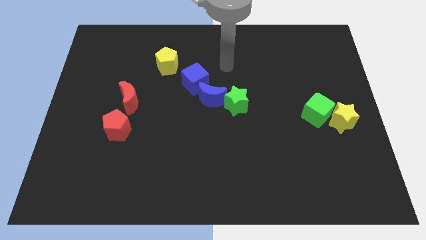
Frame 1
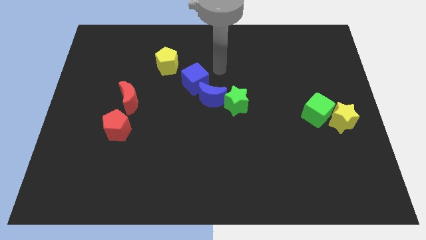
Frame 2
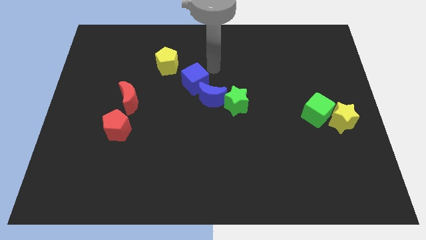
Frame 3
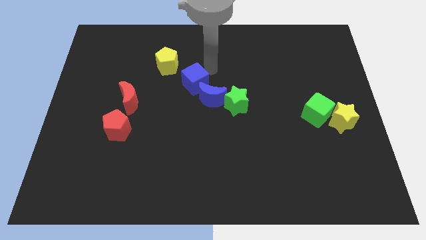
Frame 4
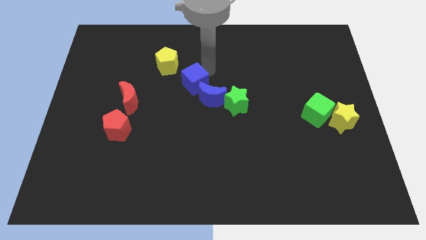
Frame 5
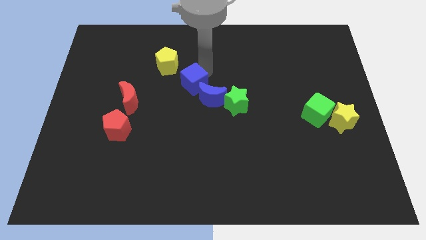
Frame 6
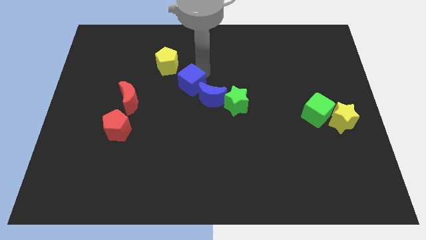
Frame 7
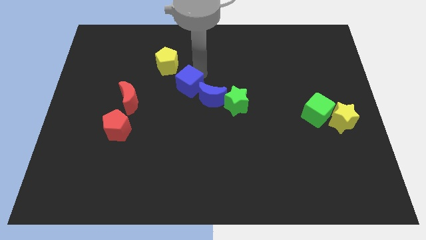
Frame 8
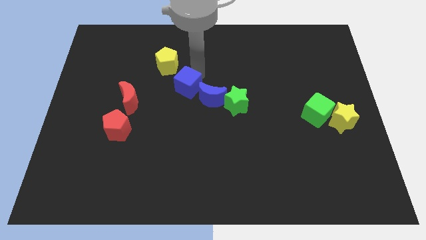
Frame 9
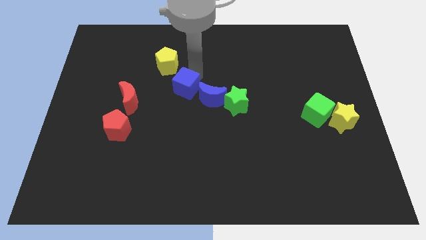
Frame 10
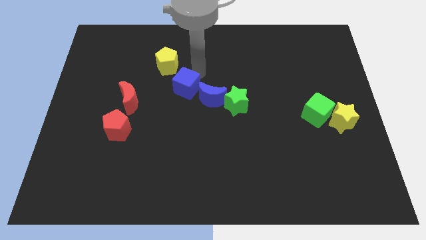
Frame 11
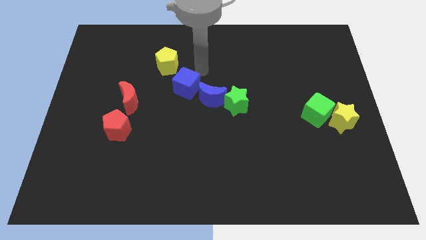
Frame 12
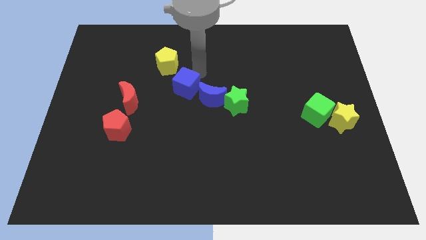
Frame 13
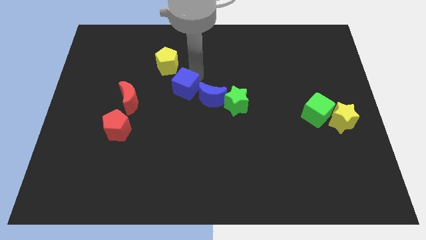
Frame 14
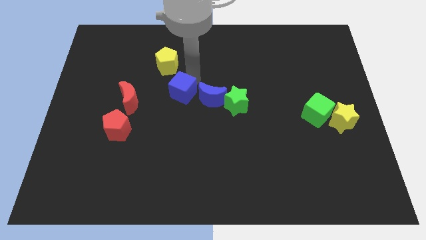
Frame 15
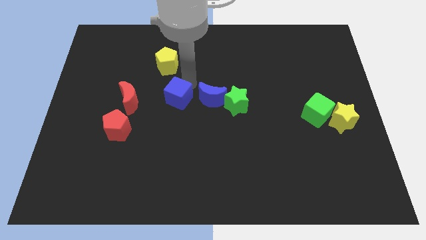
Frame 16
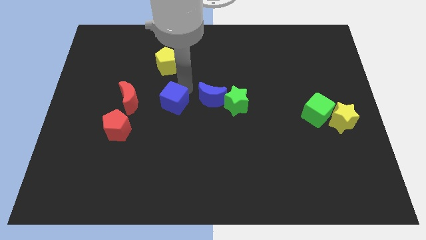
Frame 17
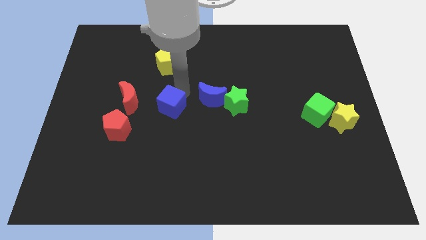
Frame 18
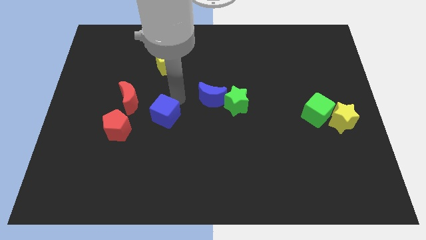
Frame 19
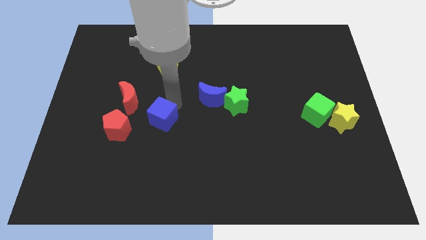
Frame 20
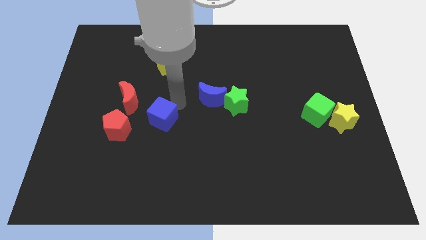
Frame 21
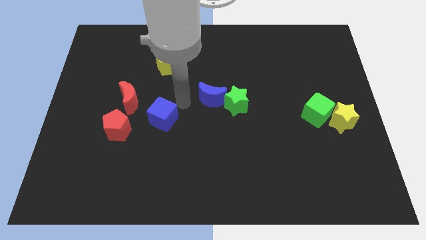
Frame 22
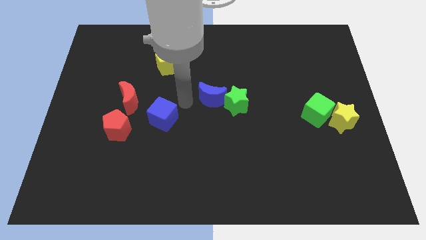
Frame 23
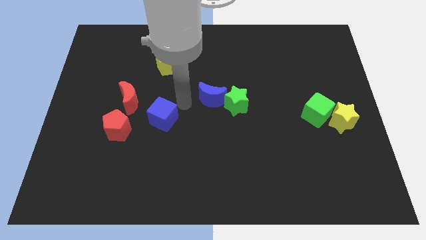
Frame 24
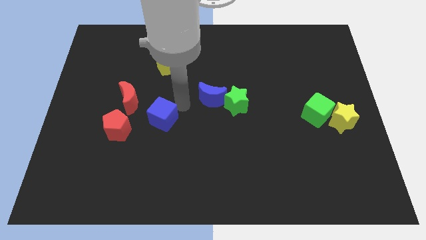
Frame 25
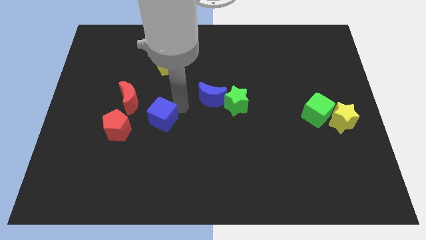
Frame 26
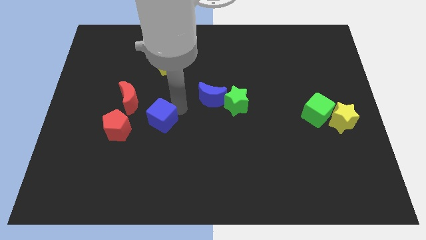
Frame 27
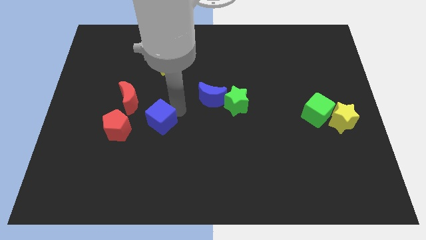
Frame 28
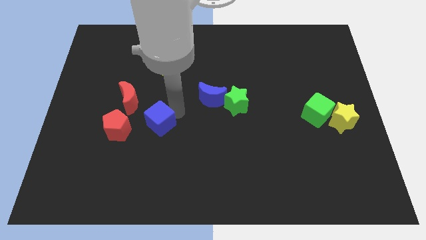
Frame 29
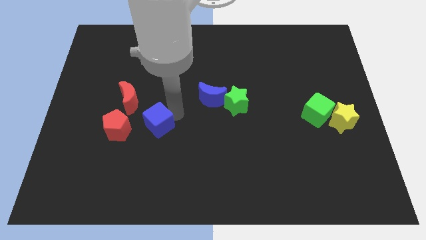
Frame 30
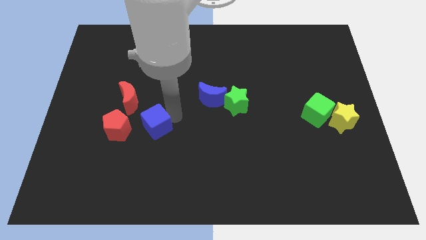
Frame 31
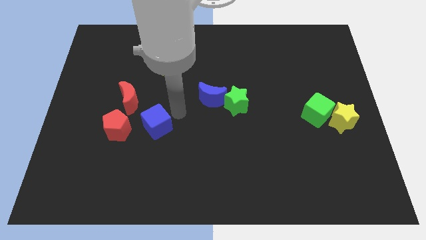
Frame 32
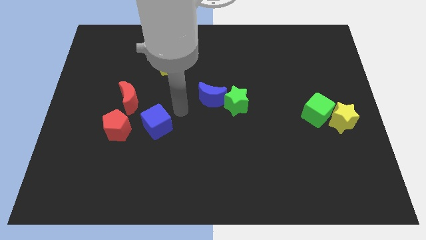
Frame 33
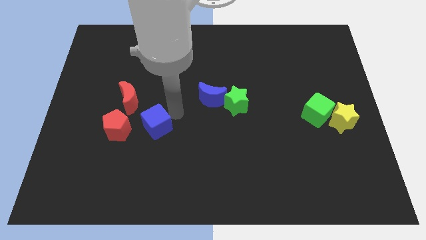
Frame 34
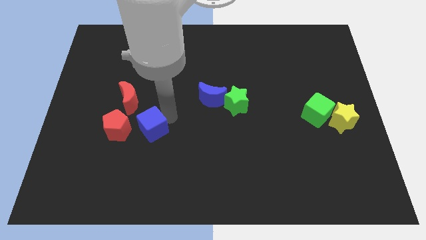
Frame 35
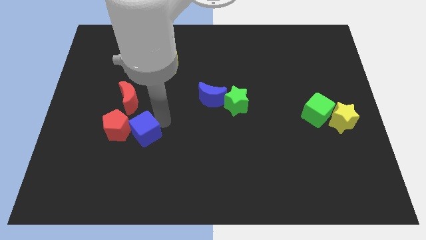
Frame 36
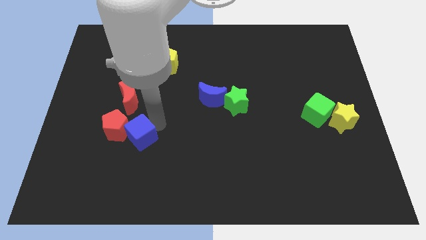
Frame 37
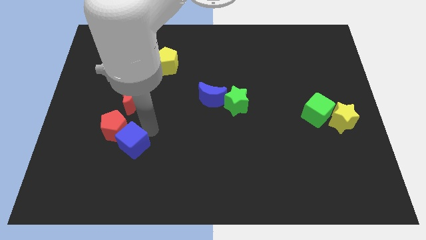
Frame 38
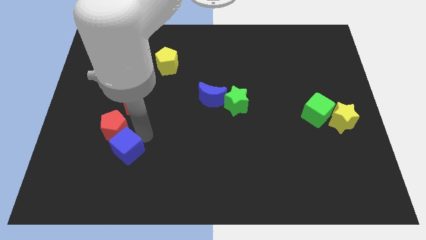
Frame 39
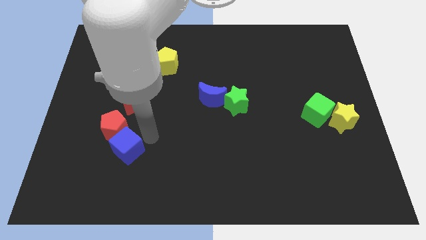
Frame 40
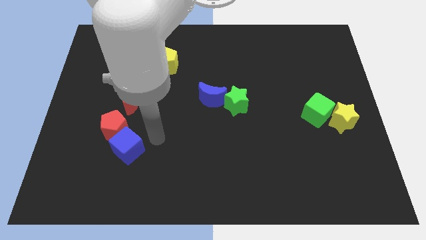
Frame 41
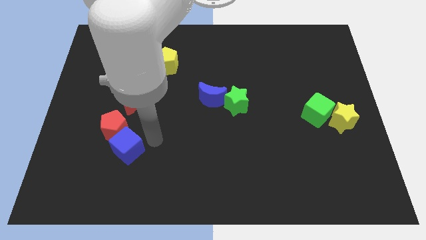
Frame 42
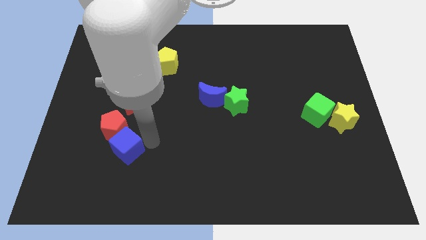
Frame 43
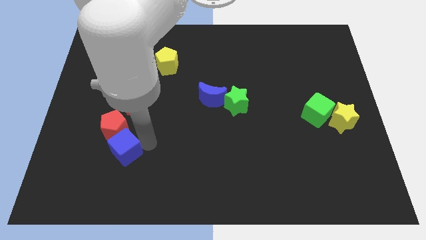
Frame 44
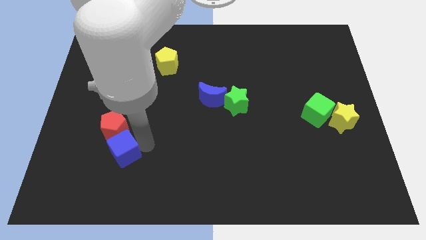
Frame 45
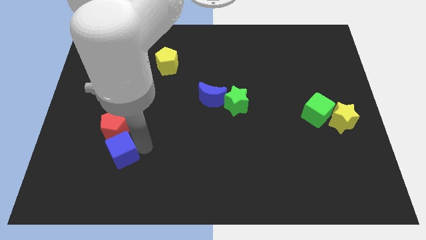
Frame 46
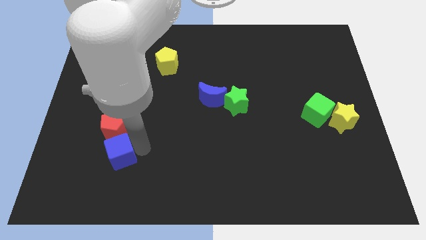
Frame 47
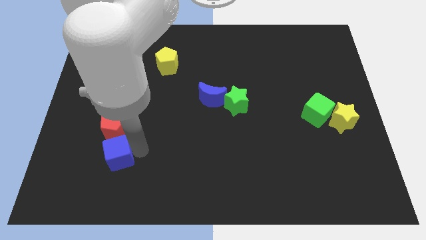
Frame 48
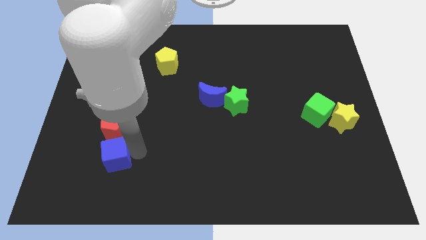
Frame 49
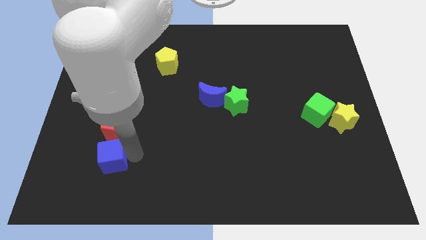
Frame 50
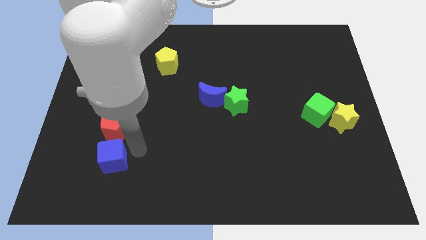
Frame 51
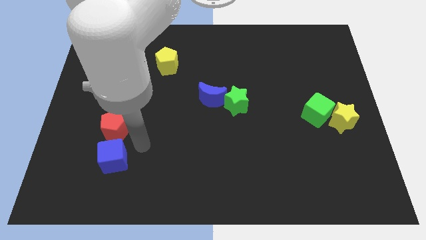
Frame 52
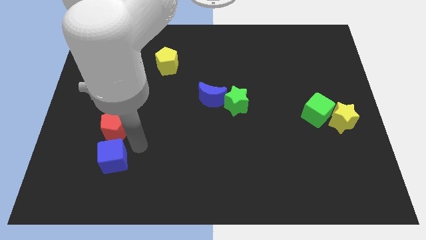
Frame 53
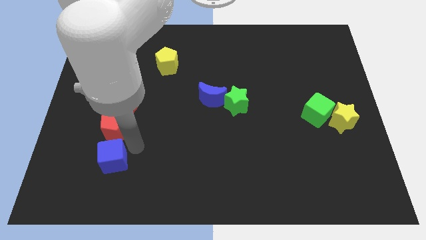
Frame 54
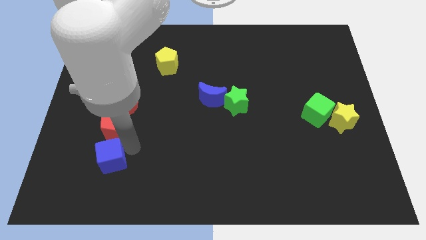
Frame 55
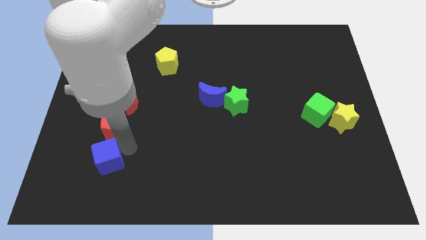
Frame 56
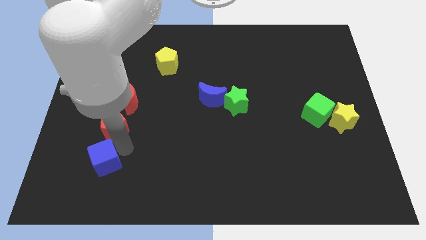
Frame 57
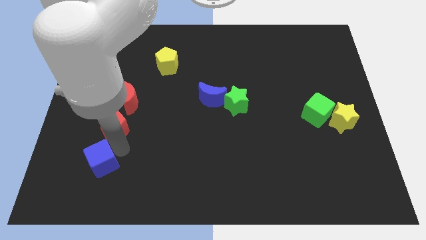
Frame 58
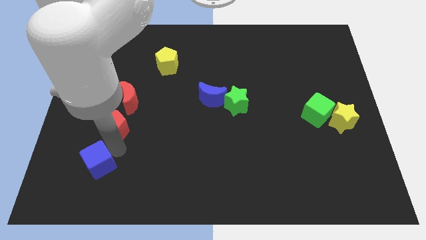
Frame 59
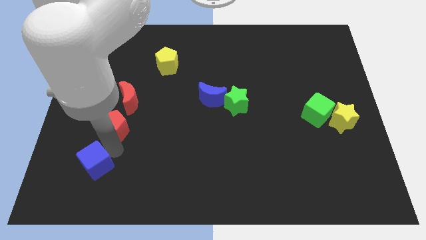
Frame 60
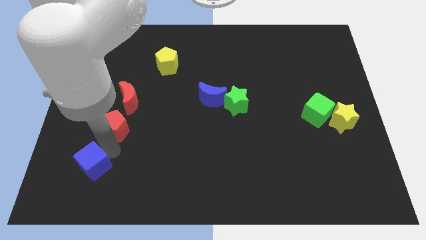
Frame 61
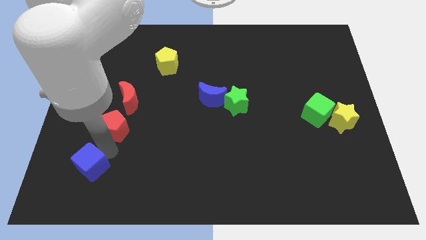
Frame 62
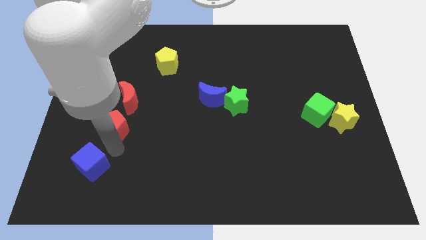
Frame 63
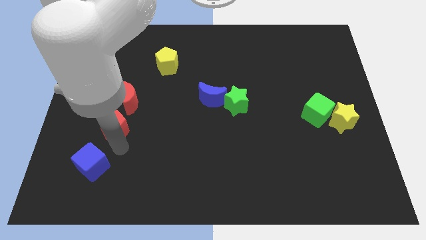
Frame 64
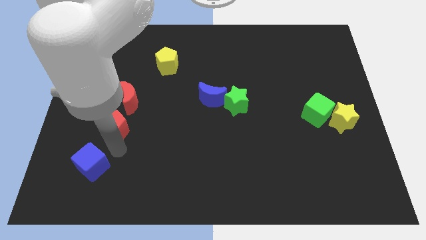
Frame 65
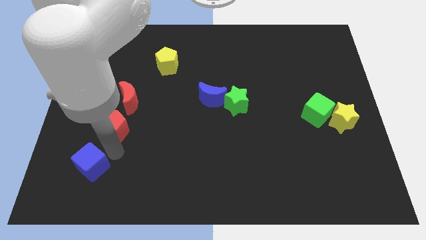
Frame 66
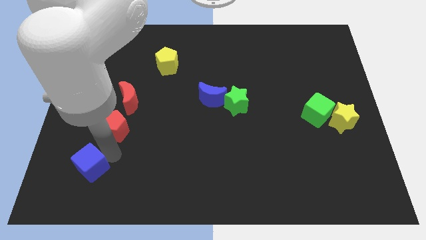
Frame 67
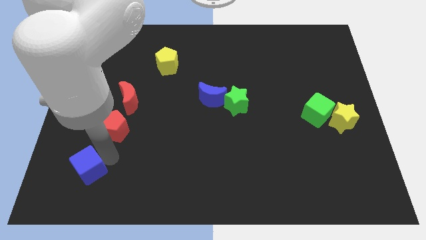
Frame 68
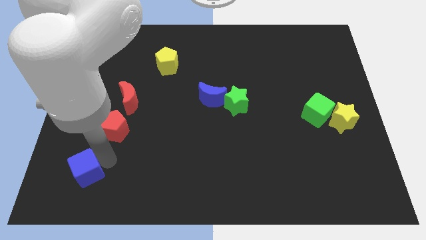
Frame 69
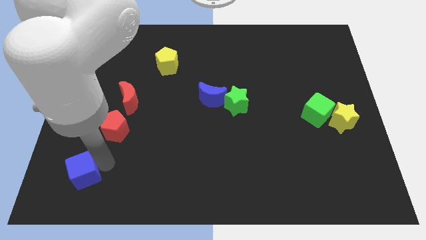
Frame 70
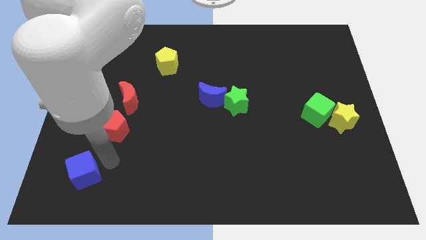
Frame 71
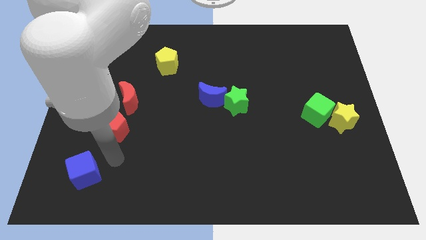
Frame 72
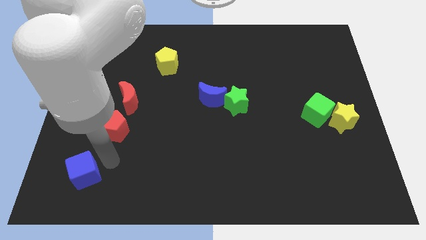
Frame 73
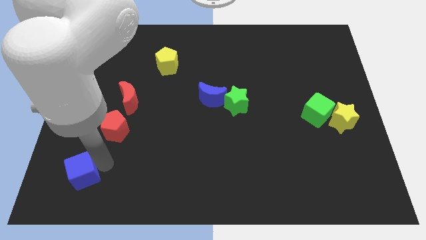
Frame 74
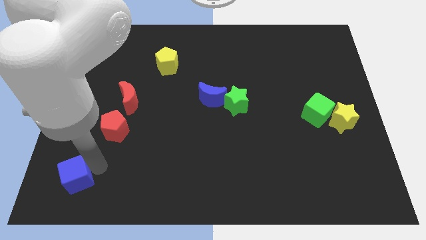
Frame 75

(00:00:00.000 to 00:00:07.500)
push the blue cube to the bottom left
